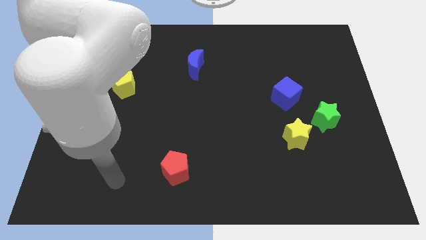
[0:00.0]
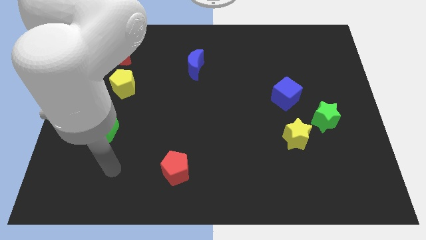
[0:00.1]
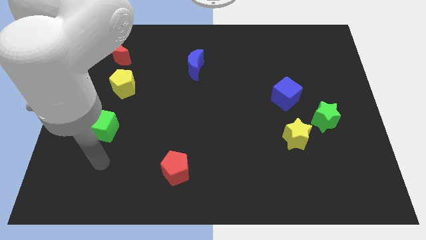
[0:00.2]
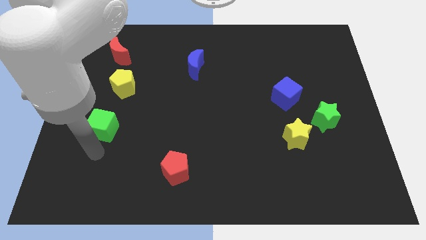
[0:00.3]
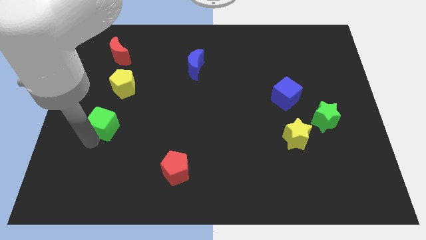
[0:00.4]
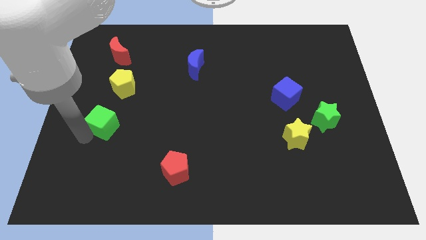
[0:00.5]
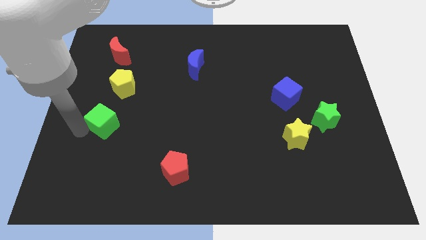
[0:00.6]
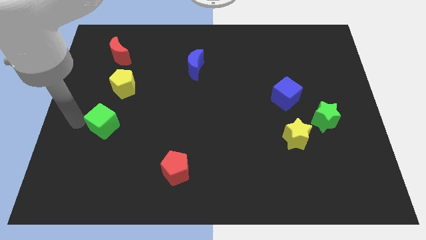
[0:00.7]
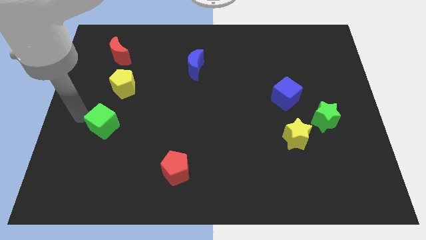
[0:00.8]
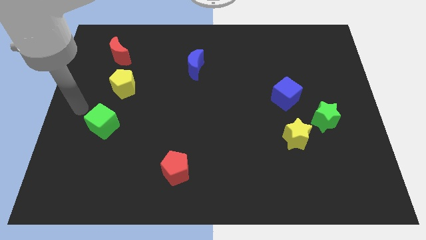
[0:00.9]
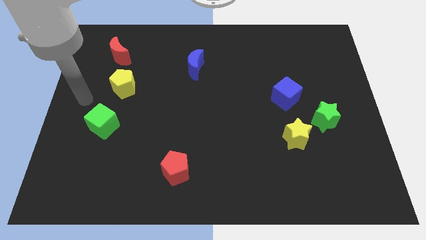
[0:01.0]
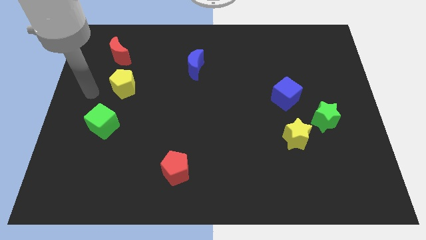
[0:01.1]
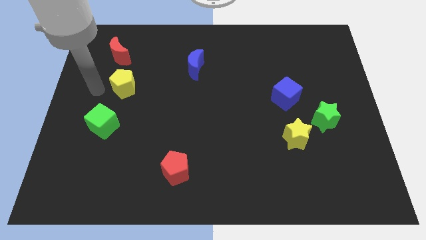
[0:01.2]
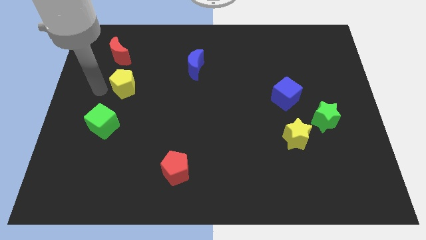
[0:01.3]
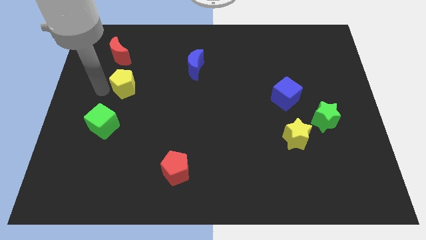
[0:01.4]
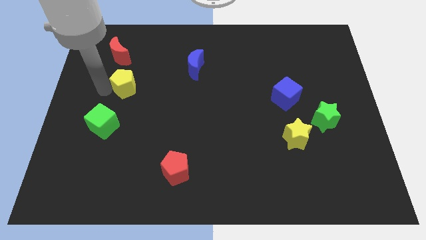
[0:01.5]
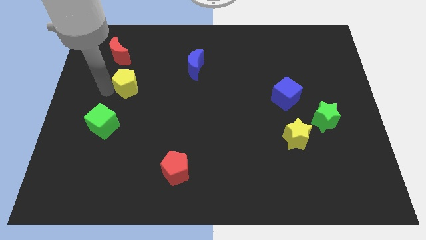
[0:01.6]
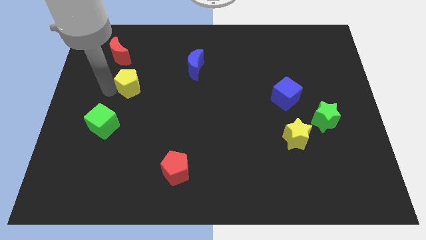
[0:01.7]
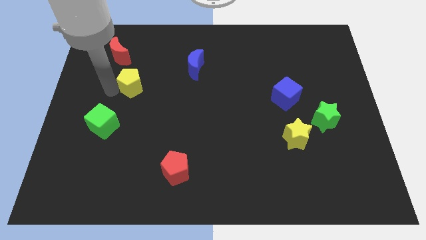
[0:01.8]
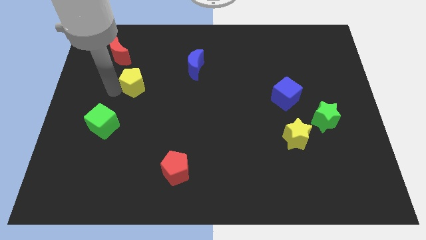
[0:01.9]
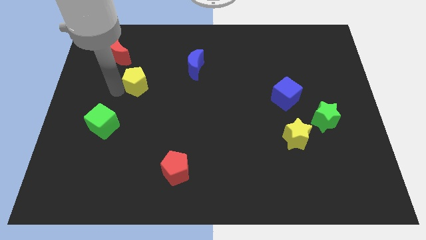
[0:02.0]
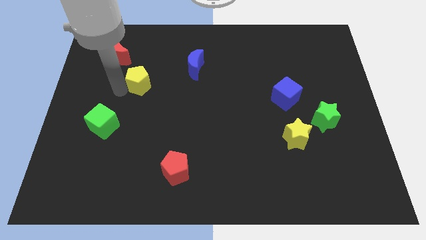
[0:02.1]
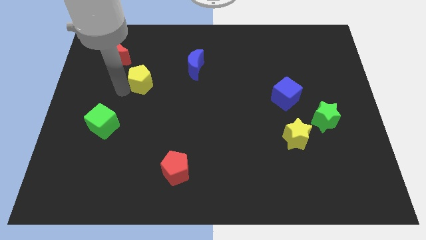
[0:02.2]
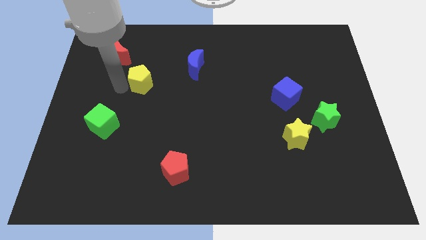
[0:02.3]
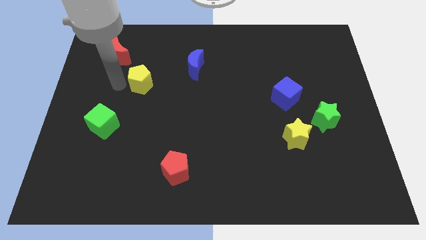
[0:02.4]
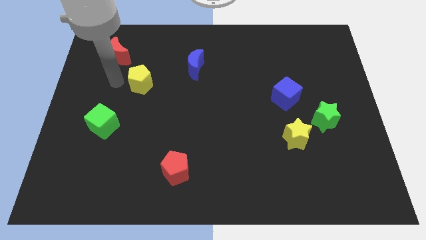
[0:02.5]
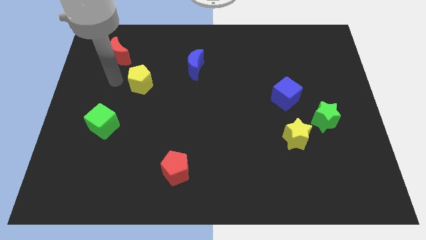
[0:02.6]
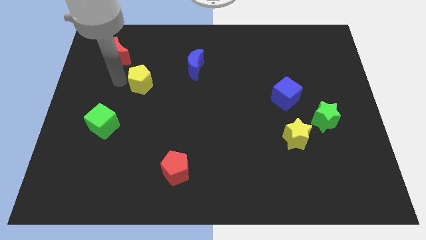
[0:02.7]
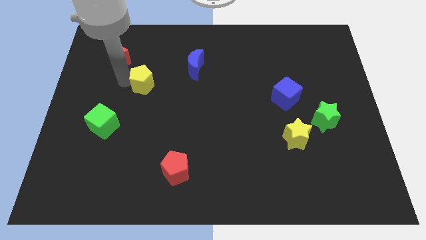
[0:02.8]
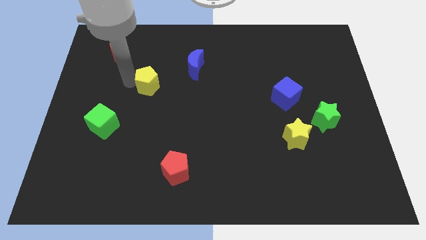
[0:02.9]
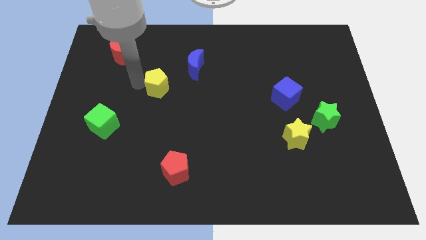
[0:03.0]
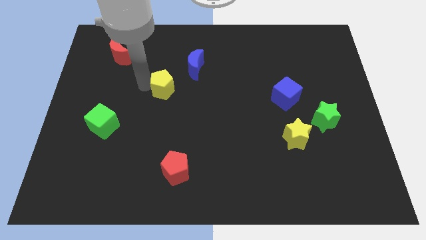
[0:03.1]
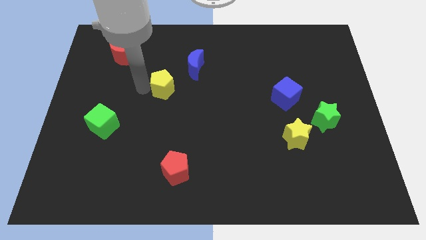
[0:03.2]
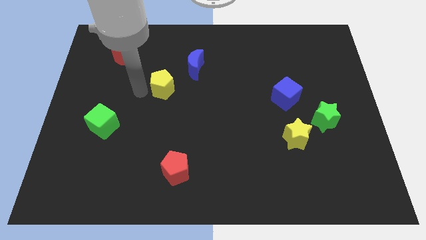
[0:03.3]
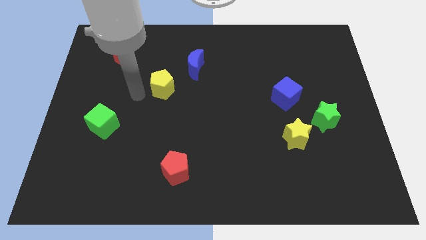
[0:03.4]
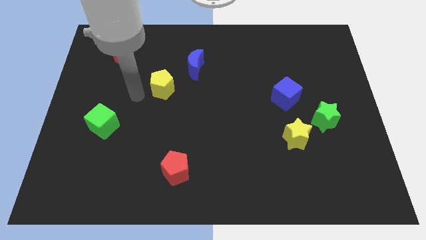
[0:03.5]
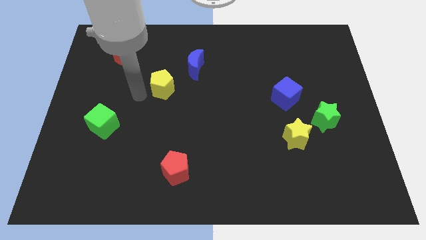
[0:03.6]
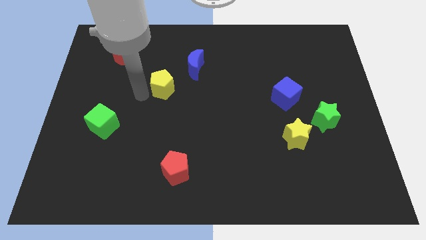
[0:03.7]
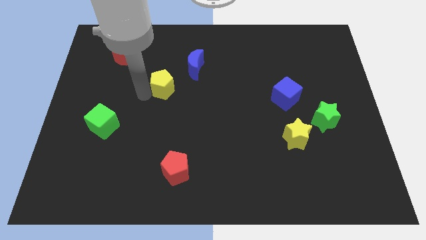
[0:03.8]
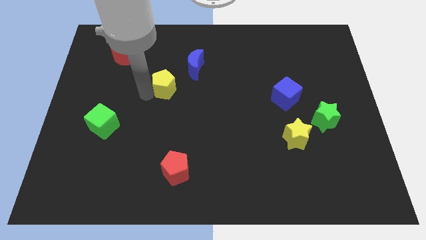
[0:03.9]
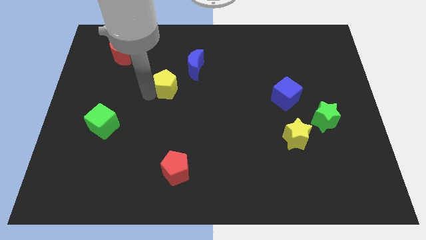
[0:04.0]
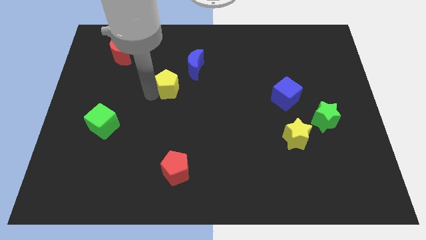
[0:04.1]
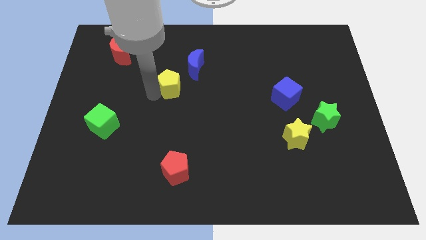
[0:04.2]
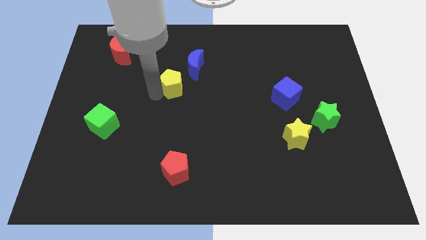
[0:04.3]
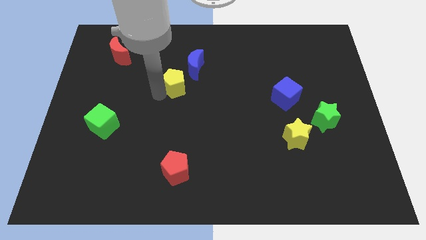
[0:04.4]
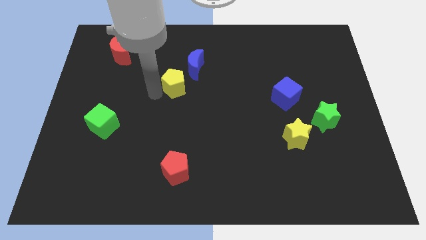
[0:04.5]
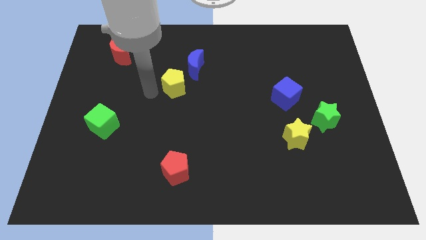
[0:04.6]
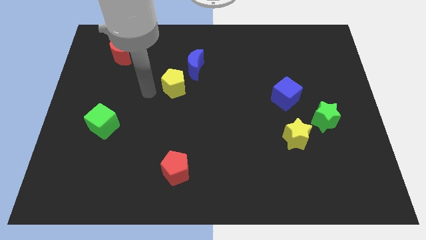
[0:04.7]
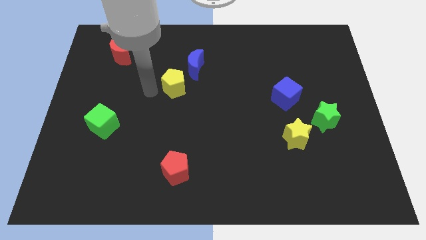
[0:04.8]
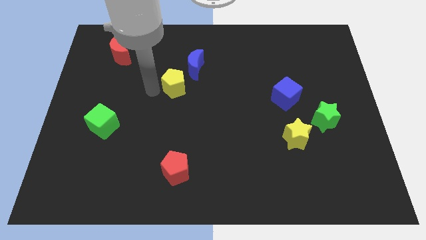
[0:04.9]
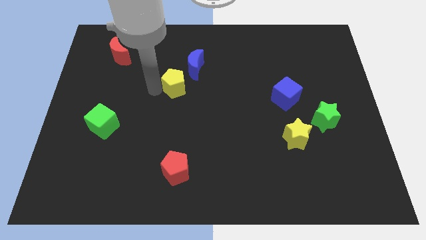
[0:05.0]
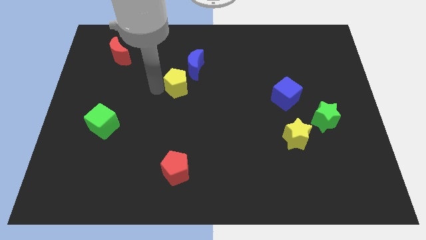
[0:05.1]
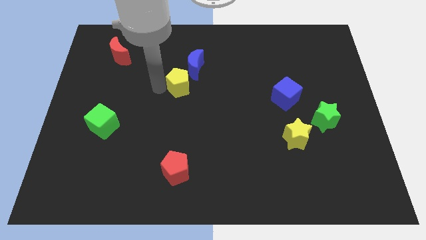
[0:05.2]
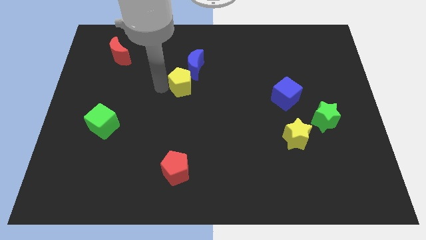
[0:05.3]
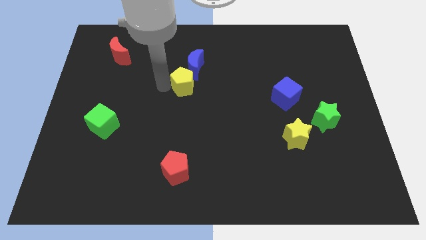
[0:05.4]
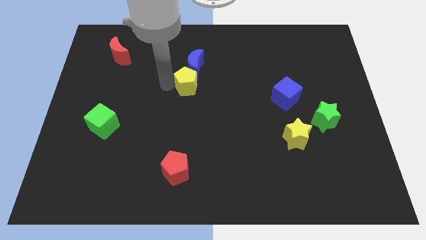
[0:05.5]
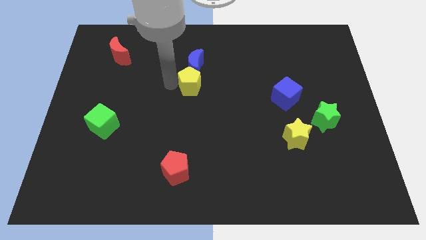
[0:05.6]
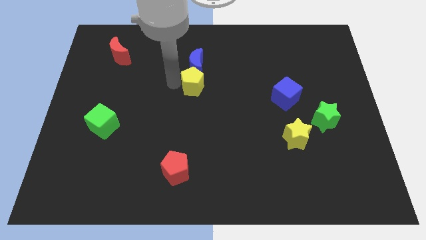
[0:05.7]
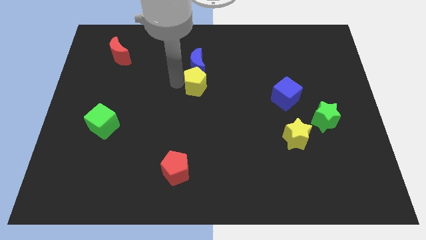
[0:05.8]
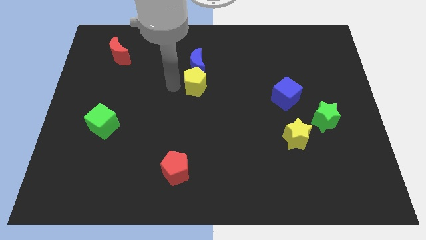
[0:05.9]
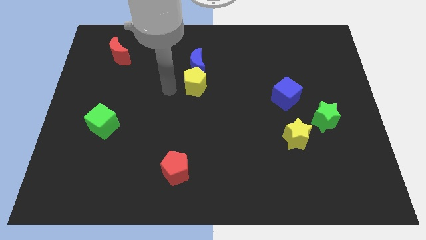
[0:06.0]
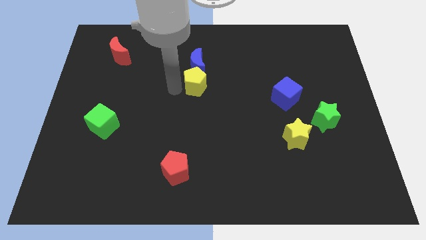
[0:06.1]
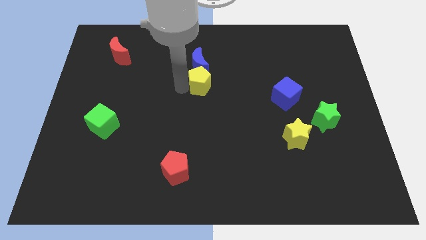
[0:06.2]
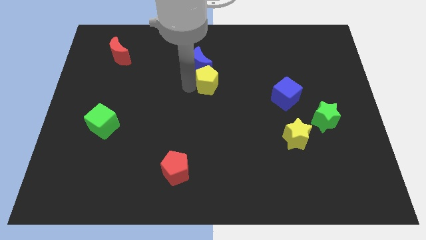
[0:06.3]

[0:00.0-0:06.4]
move the yellow pentagon right

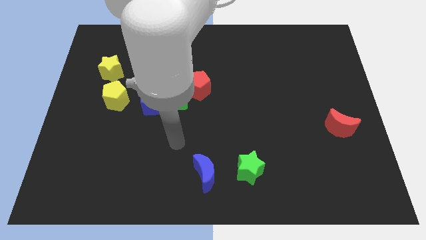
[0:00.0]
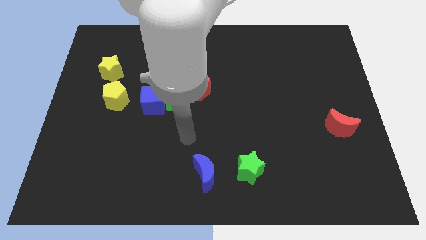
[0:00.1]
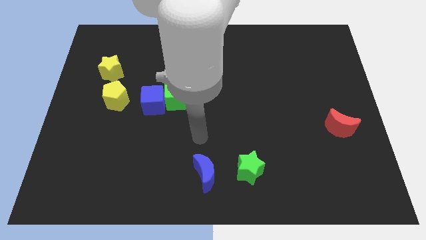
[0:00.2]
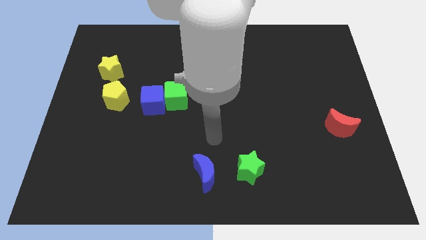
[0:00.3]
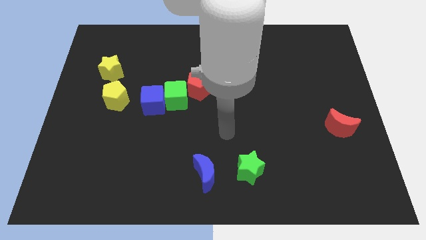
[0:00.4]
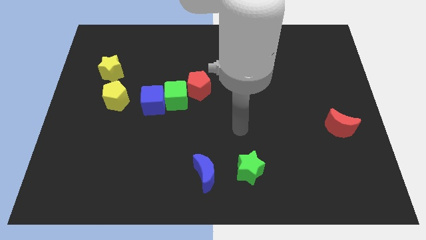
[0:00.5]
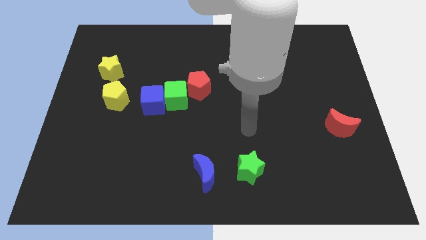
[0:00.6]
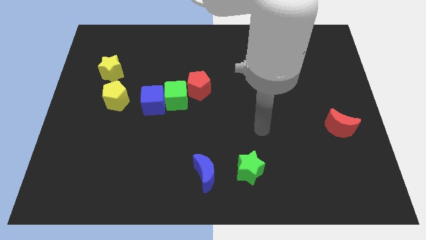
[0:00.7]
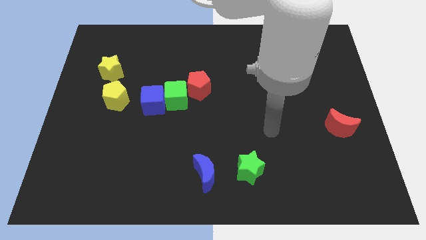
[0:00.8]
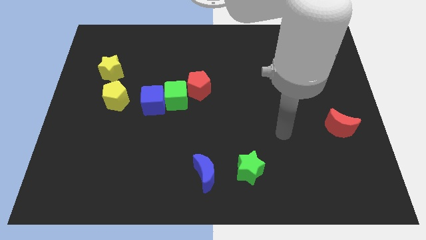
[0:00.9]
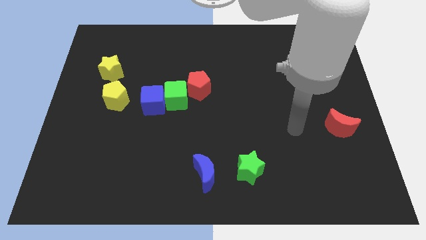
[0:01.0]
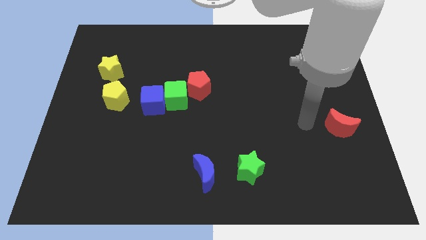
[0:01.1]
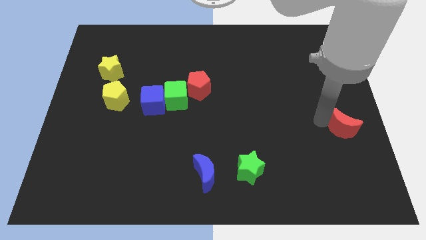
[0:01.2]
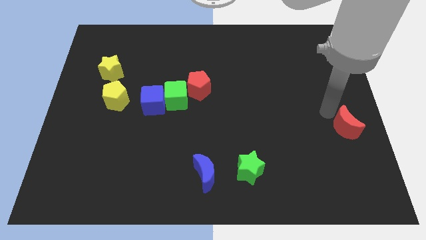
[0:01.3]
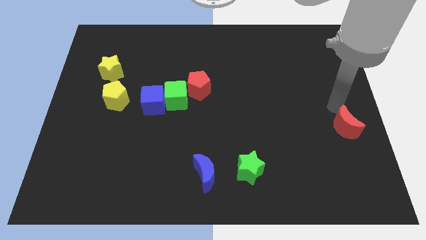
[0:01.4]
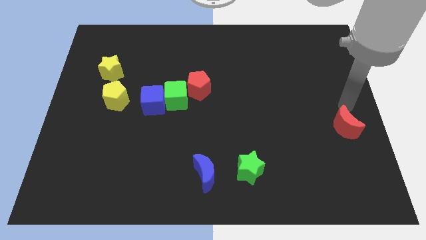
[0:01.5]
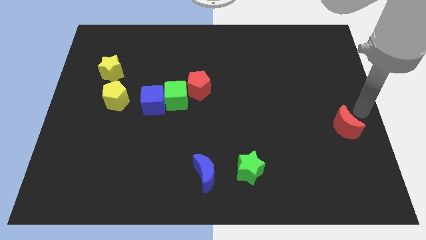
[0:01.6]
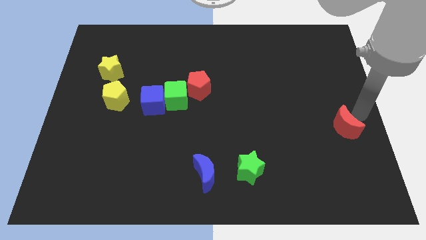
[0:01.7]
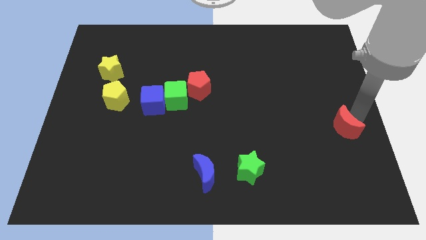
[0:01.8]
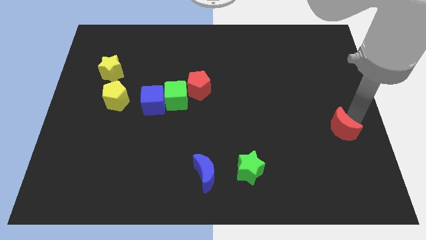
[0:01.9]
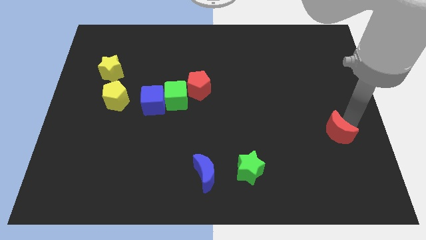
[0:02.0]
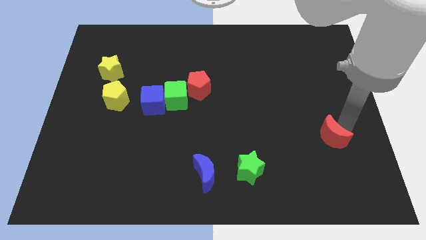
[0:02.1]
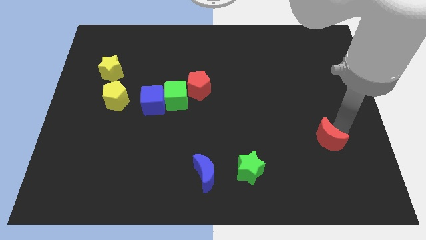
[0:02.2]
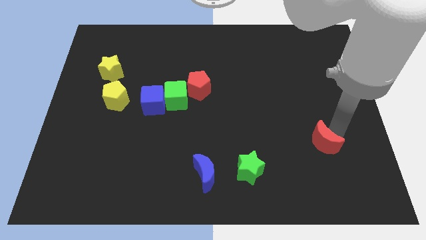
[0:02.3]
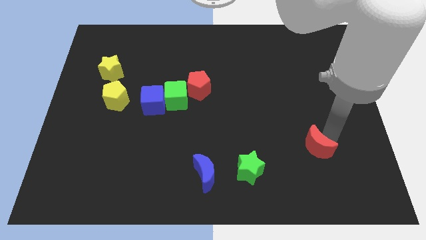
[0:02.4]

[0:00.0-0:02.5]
slightly push the red moon downwards and left
